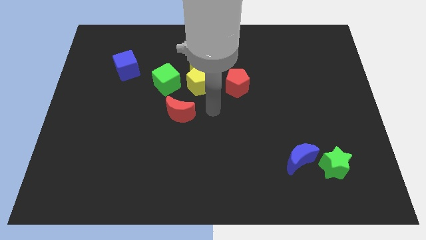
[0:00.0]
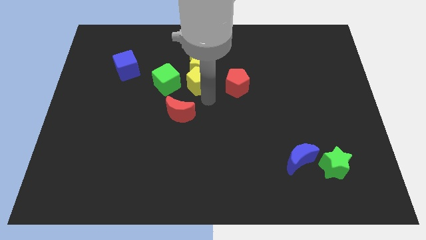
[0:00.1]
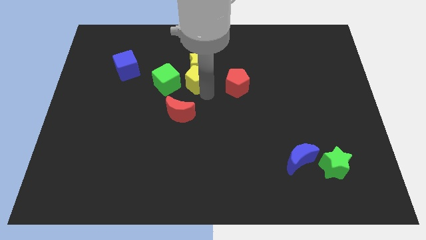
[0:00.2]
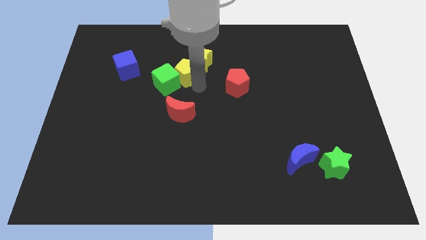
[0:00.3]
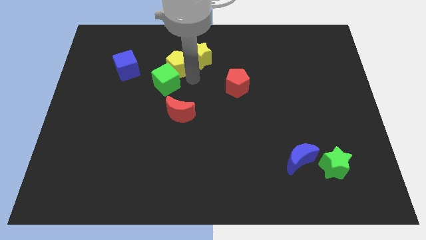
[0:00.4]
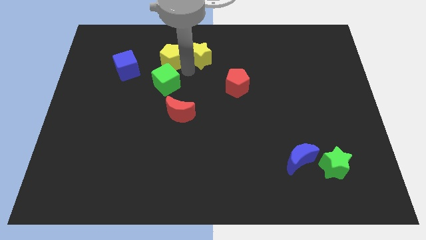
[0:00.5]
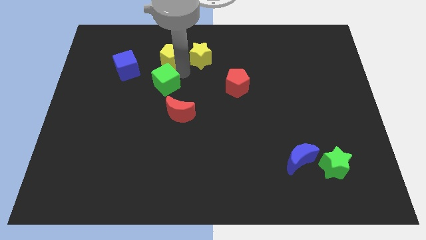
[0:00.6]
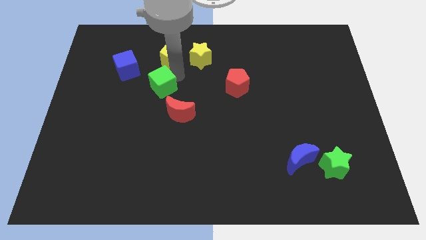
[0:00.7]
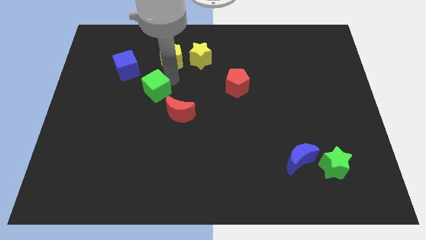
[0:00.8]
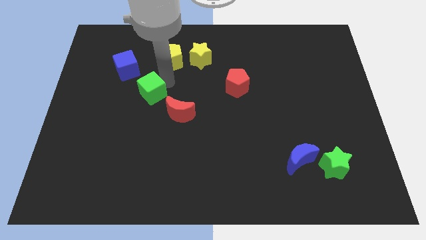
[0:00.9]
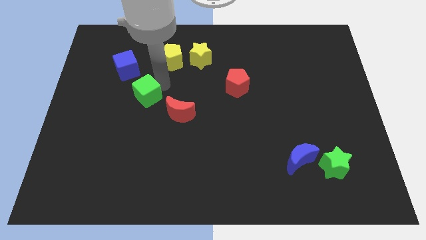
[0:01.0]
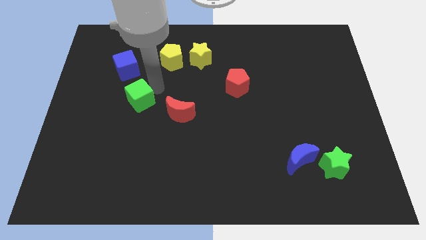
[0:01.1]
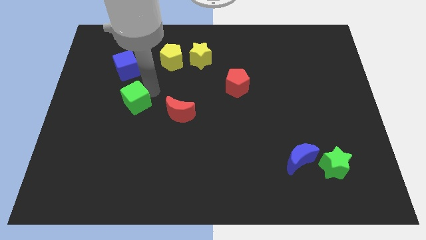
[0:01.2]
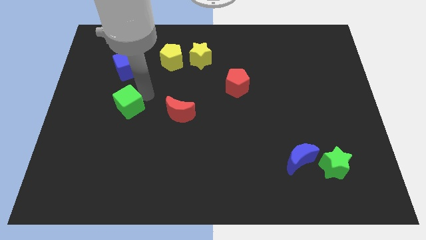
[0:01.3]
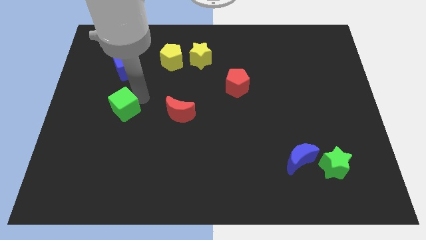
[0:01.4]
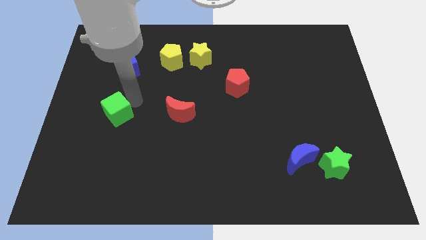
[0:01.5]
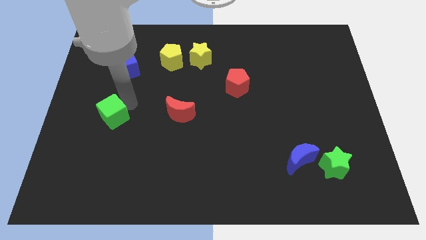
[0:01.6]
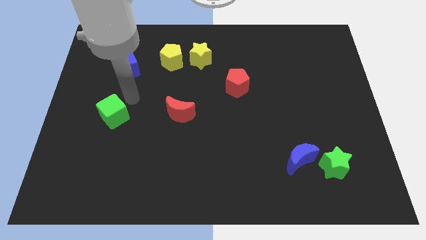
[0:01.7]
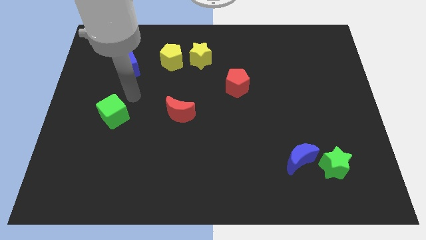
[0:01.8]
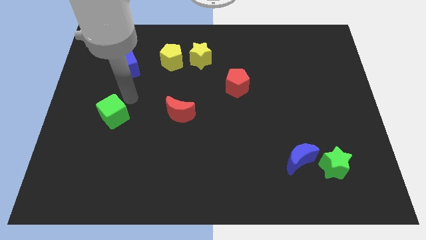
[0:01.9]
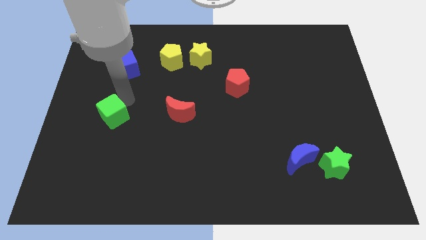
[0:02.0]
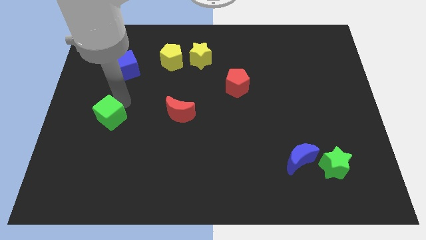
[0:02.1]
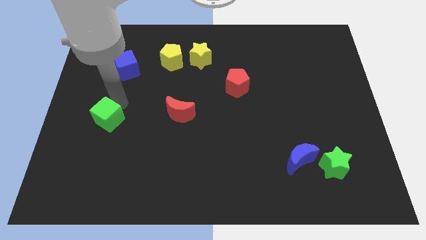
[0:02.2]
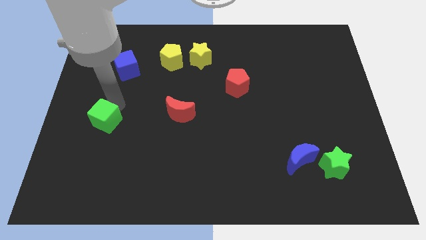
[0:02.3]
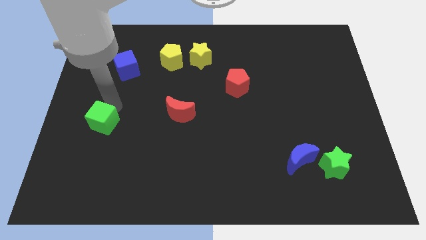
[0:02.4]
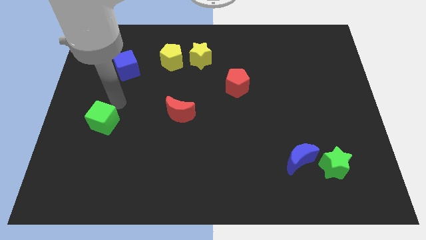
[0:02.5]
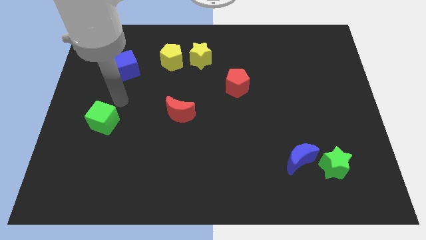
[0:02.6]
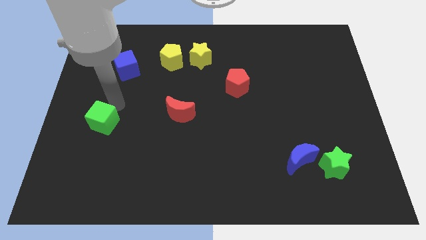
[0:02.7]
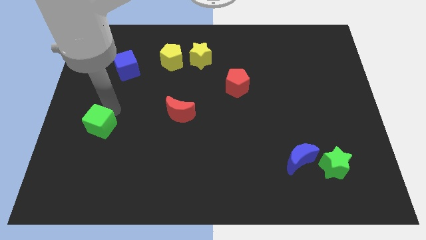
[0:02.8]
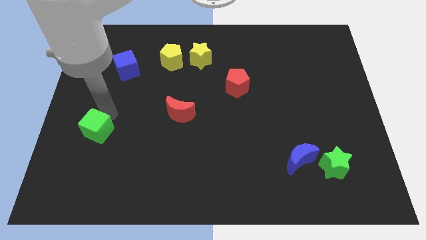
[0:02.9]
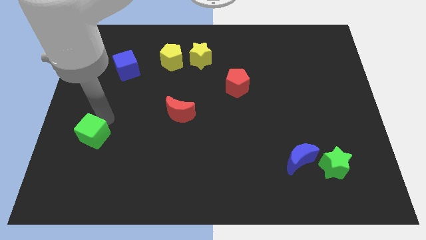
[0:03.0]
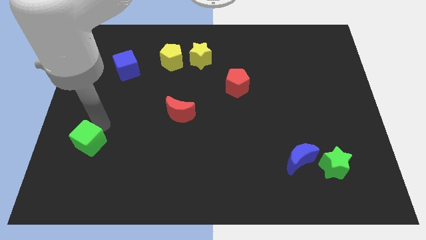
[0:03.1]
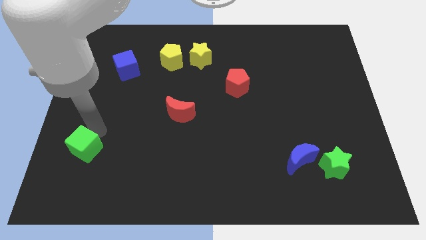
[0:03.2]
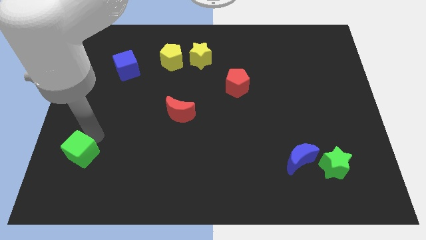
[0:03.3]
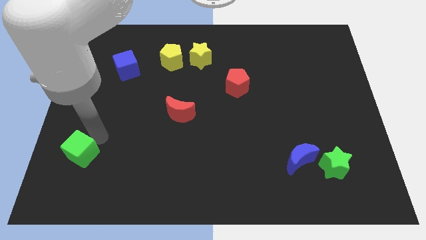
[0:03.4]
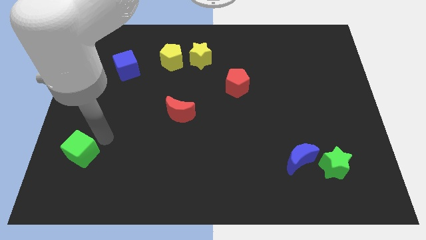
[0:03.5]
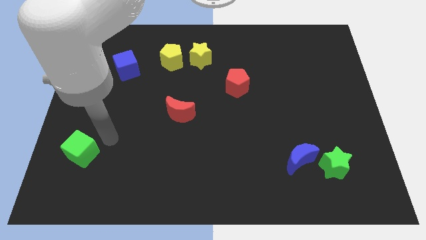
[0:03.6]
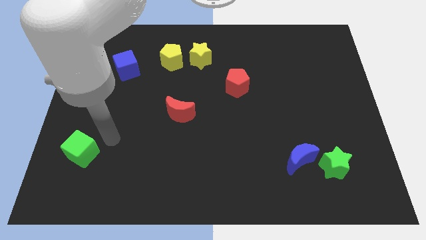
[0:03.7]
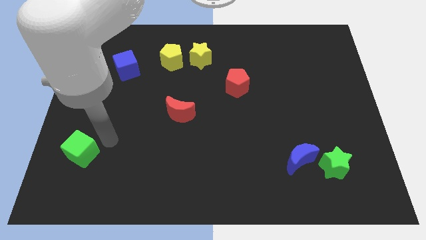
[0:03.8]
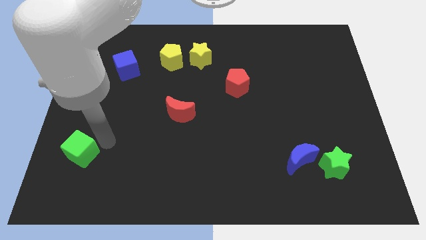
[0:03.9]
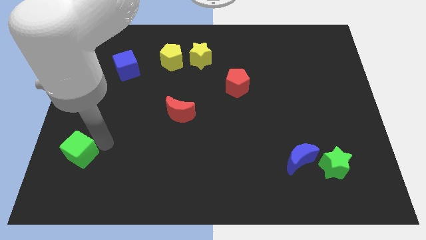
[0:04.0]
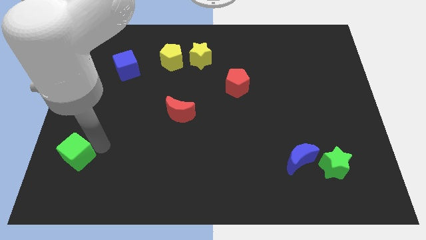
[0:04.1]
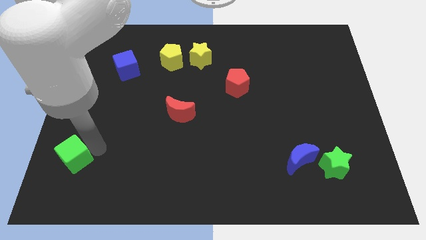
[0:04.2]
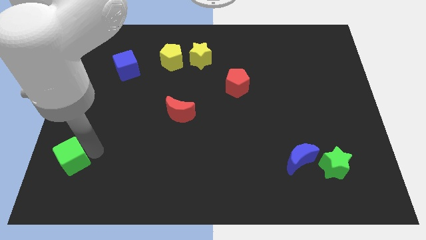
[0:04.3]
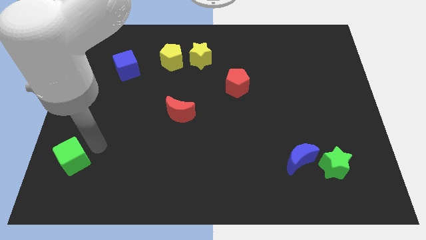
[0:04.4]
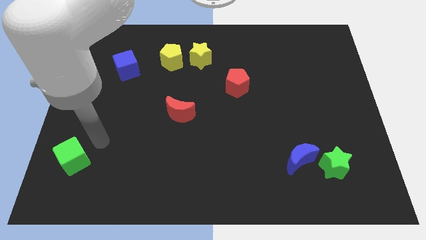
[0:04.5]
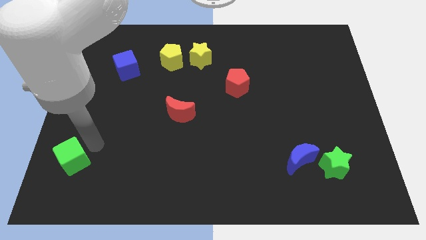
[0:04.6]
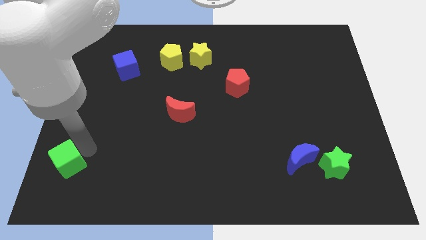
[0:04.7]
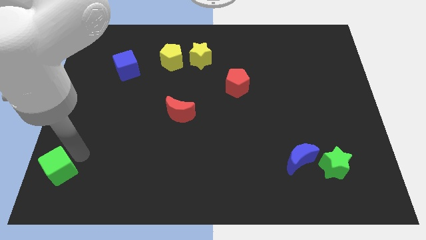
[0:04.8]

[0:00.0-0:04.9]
put the green cube to the bottom left corner

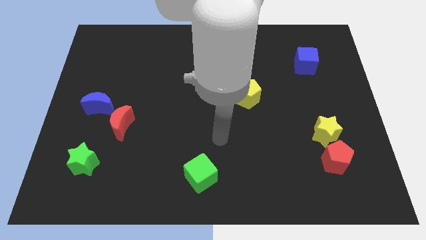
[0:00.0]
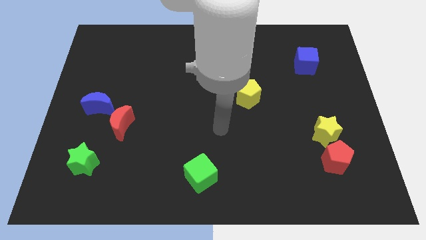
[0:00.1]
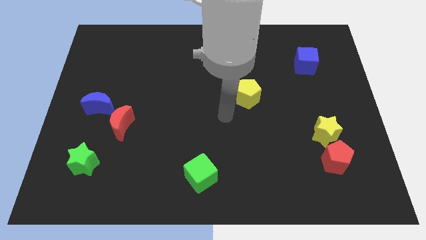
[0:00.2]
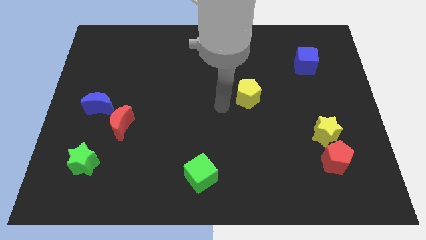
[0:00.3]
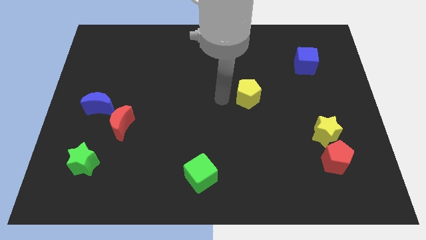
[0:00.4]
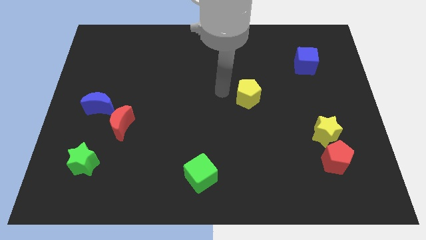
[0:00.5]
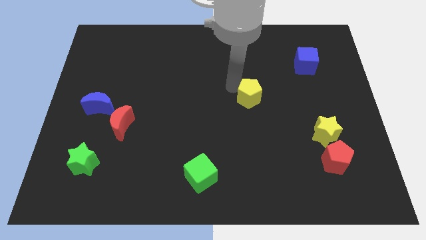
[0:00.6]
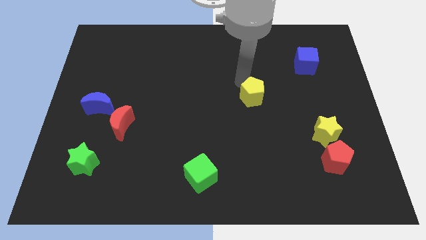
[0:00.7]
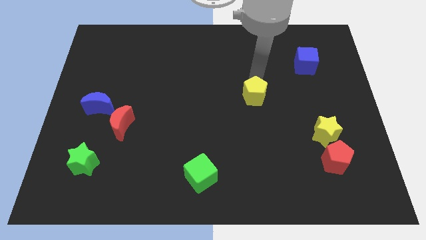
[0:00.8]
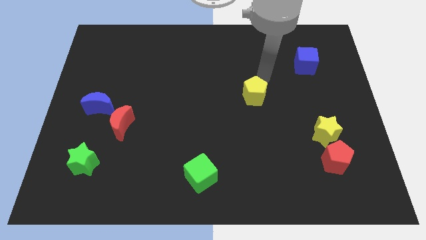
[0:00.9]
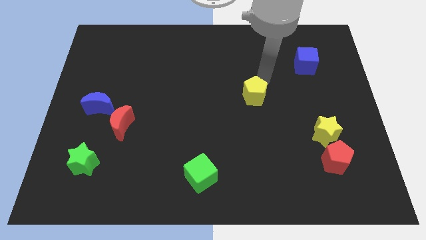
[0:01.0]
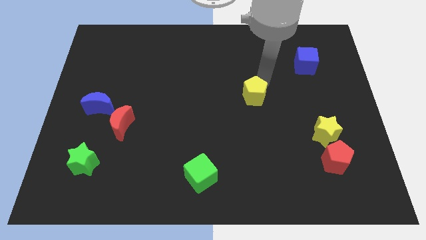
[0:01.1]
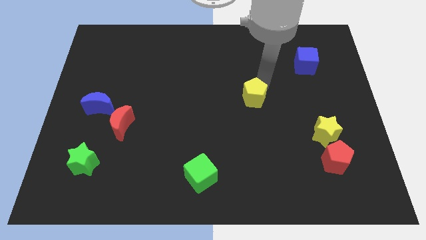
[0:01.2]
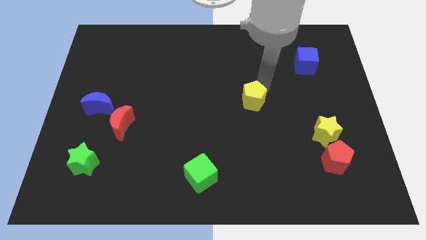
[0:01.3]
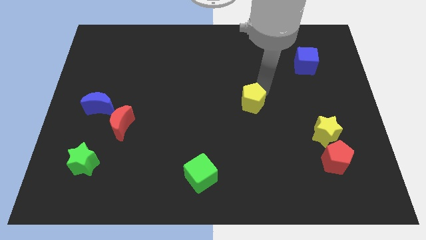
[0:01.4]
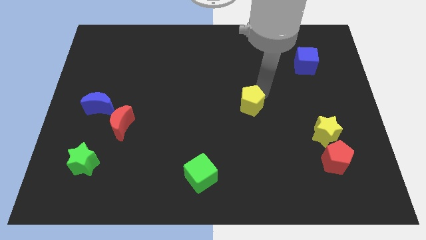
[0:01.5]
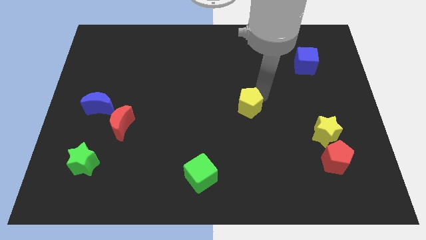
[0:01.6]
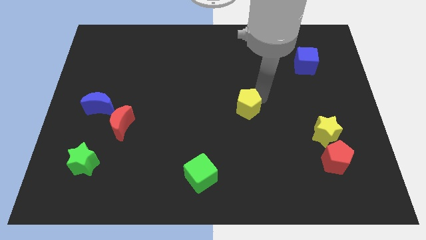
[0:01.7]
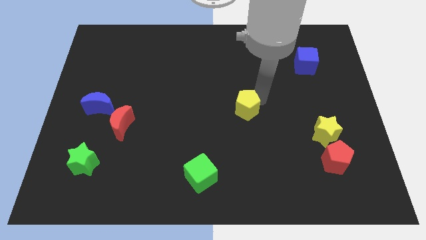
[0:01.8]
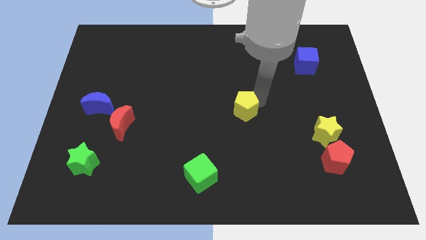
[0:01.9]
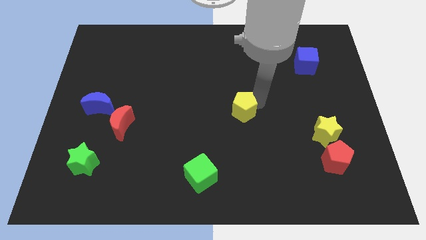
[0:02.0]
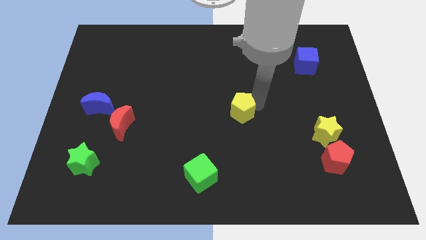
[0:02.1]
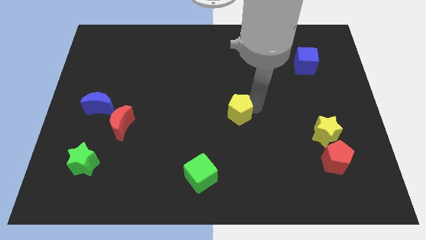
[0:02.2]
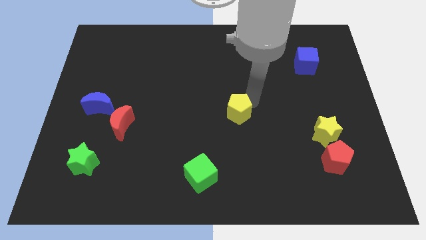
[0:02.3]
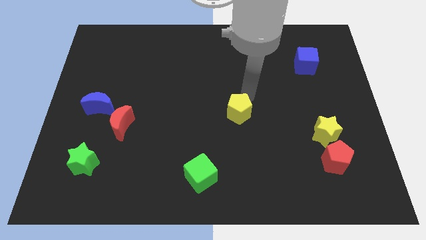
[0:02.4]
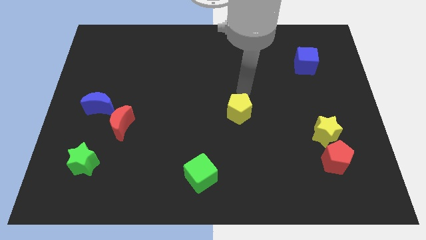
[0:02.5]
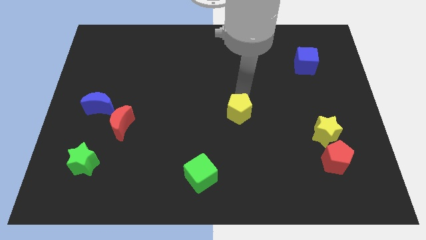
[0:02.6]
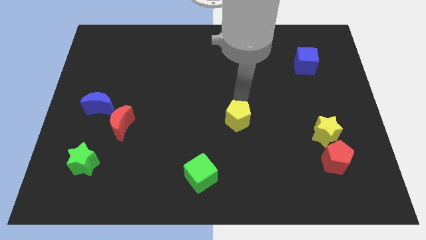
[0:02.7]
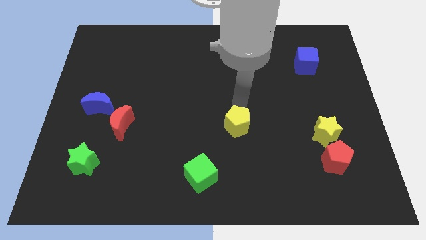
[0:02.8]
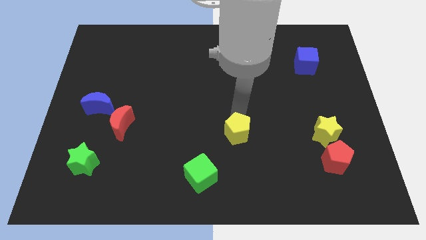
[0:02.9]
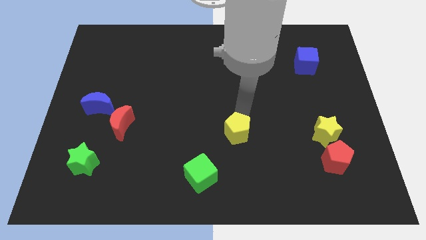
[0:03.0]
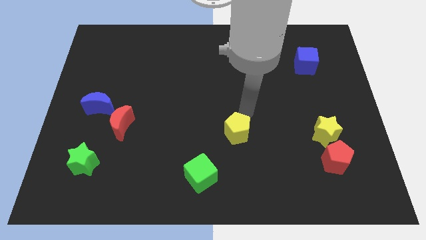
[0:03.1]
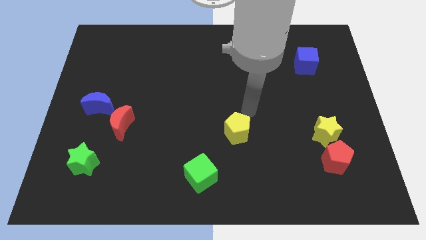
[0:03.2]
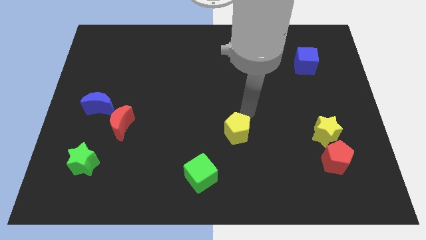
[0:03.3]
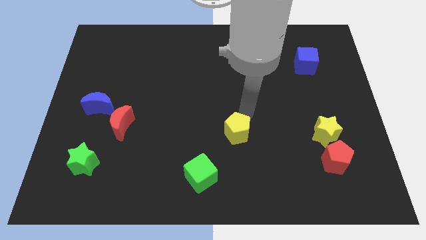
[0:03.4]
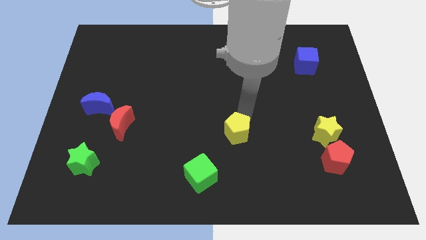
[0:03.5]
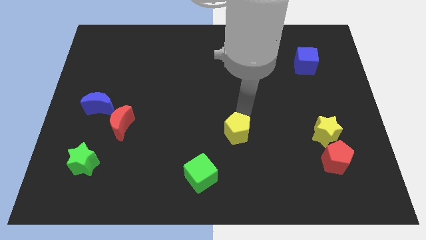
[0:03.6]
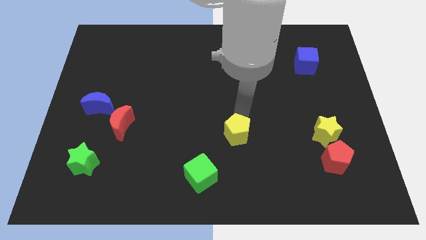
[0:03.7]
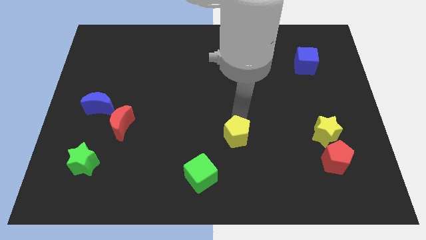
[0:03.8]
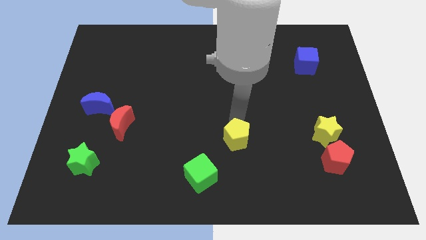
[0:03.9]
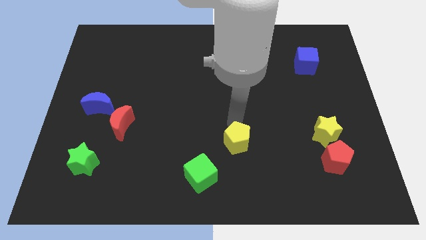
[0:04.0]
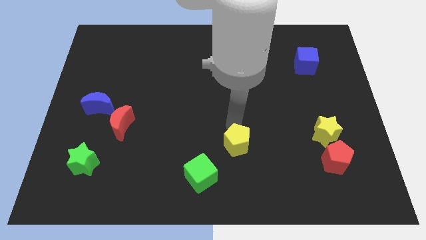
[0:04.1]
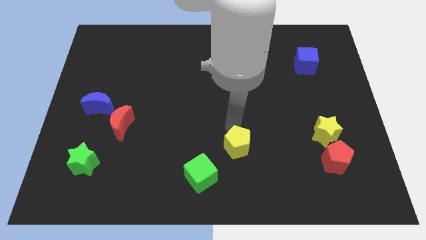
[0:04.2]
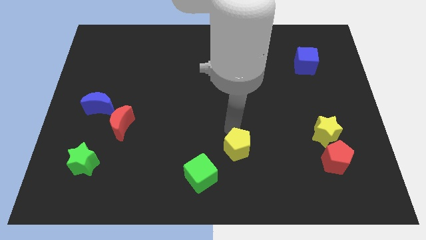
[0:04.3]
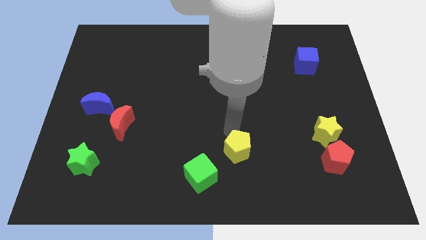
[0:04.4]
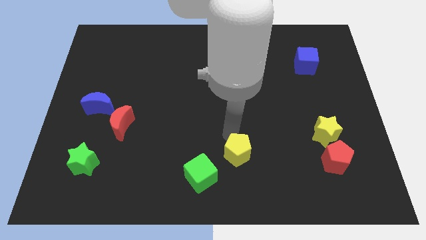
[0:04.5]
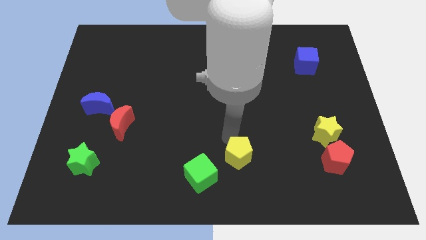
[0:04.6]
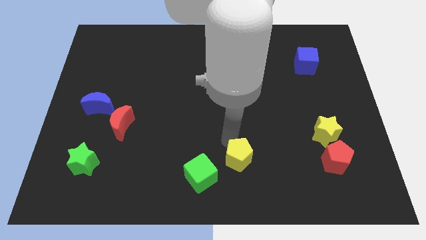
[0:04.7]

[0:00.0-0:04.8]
move the yellow pentagon to the bottom side
